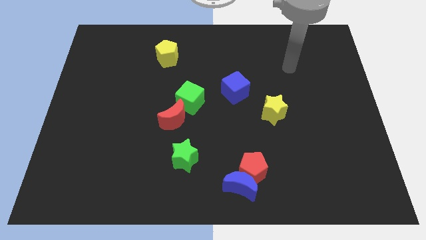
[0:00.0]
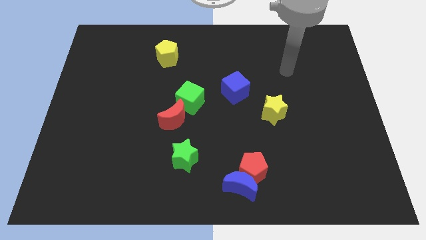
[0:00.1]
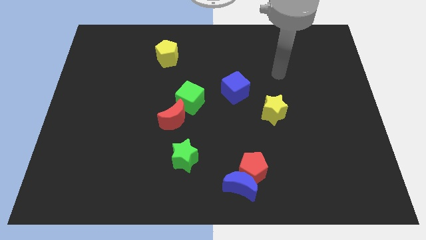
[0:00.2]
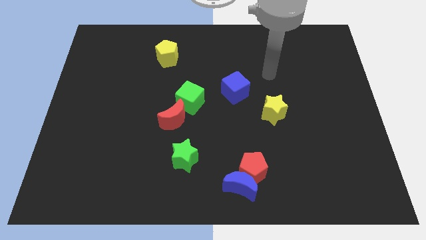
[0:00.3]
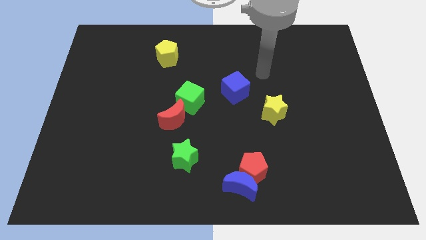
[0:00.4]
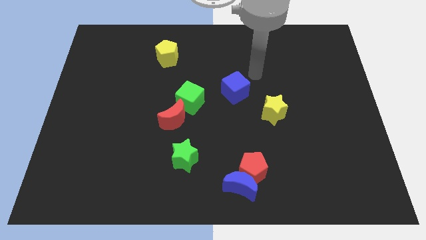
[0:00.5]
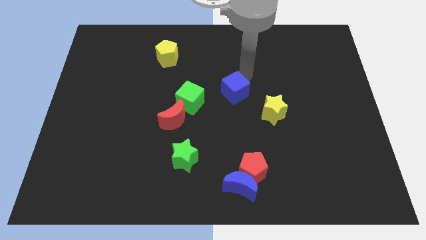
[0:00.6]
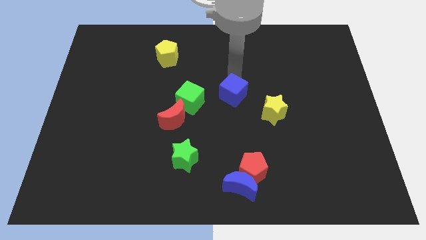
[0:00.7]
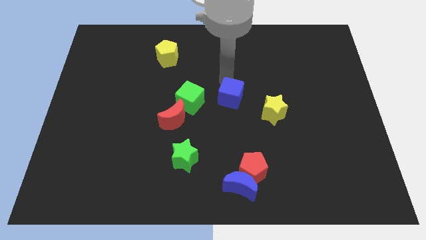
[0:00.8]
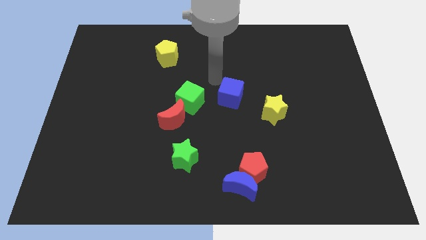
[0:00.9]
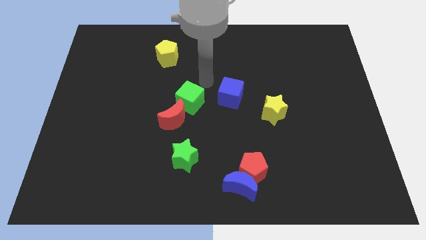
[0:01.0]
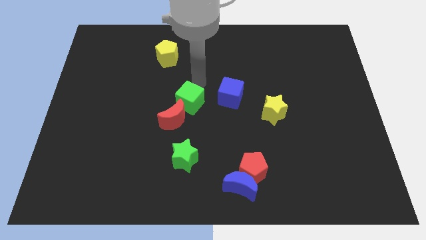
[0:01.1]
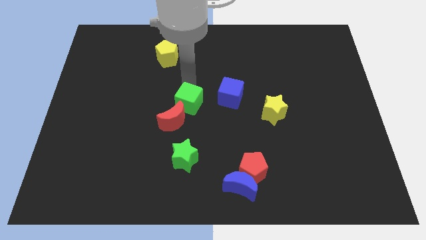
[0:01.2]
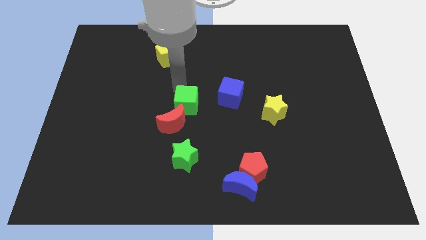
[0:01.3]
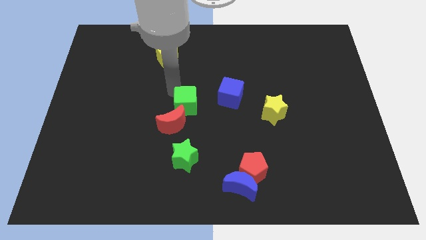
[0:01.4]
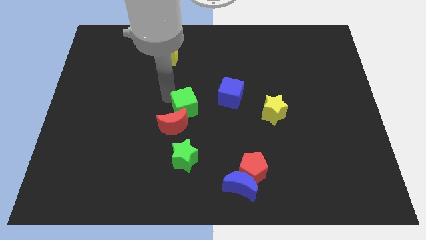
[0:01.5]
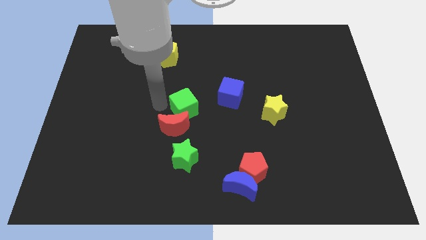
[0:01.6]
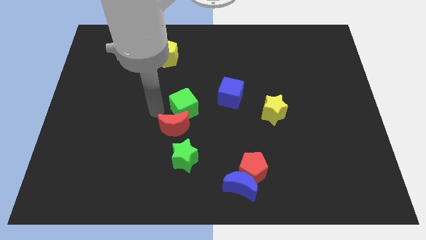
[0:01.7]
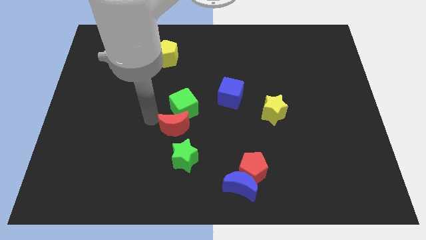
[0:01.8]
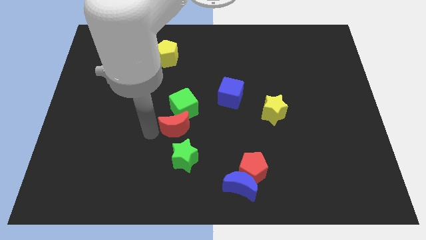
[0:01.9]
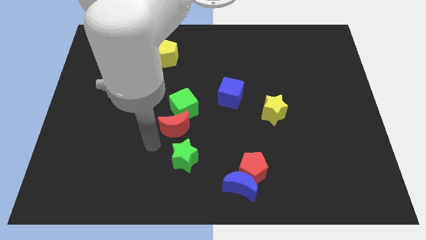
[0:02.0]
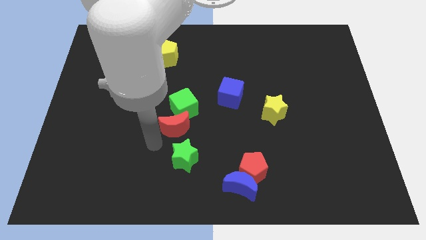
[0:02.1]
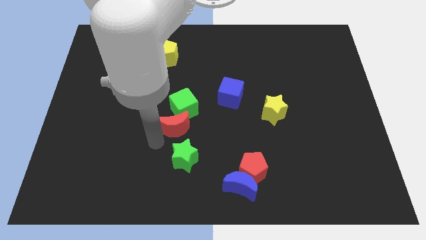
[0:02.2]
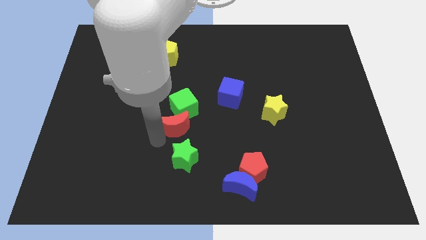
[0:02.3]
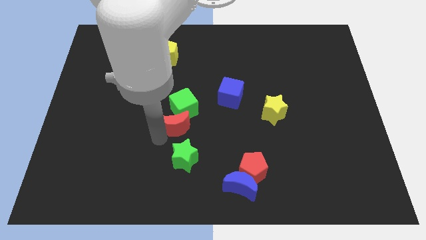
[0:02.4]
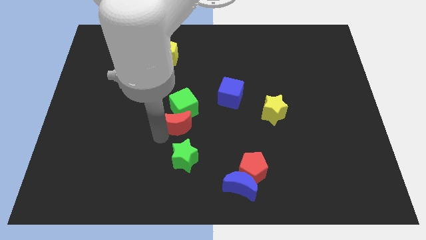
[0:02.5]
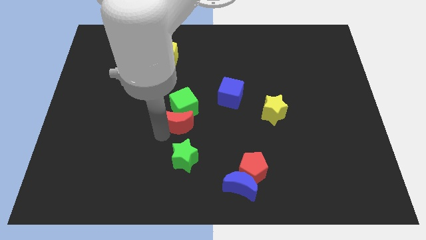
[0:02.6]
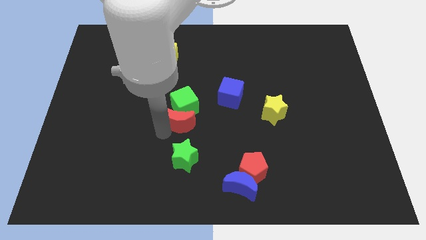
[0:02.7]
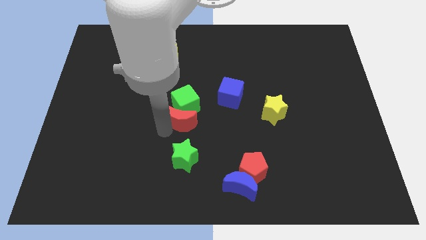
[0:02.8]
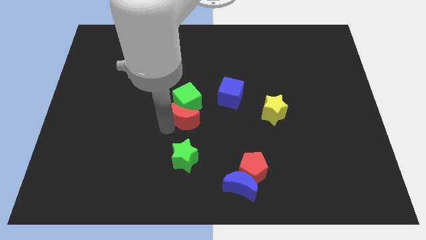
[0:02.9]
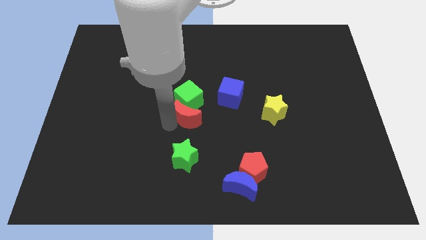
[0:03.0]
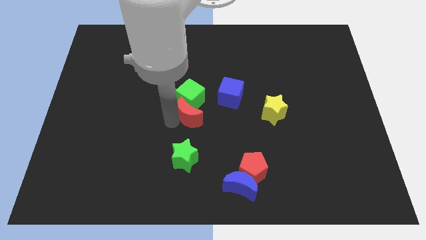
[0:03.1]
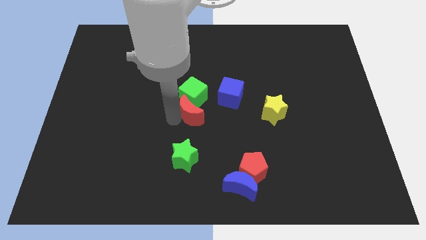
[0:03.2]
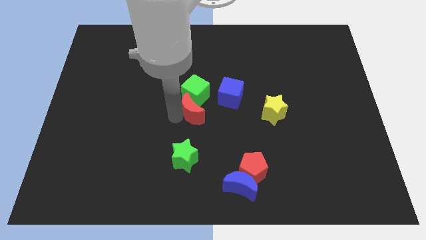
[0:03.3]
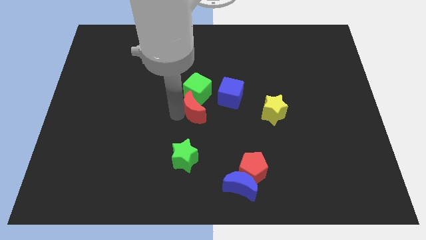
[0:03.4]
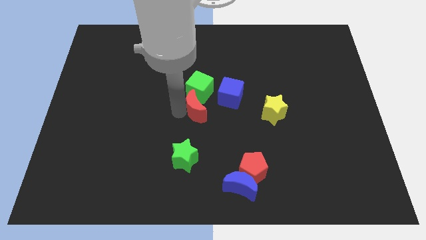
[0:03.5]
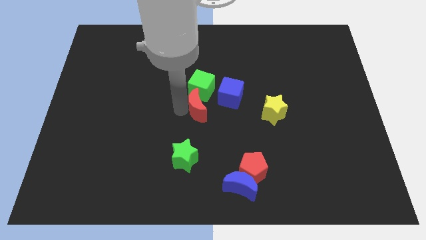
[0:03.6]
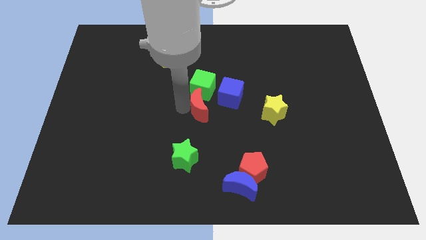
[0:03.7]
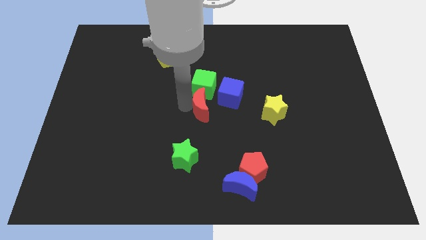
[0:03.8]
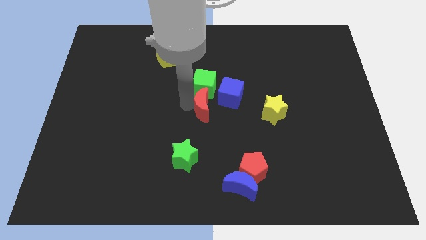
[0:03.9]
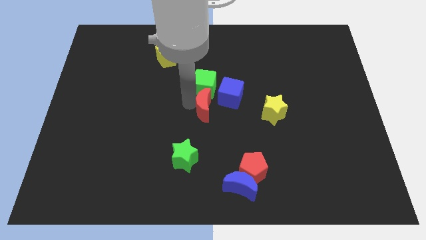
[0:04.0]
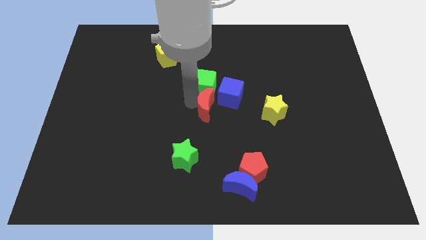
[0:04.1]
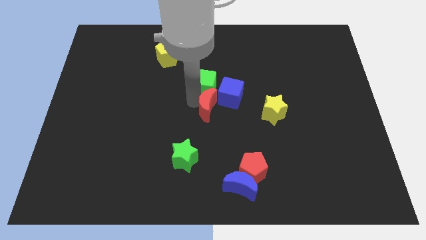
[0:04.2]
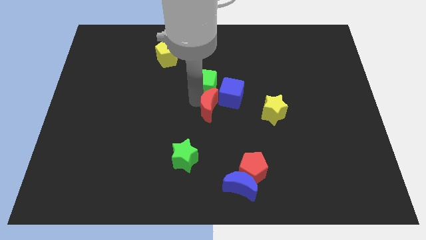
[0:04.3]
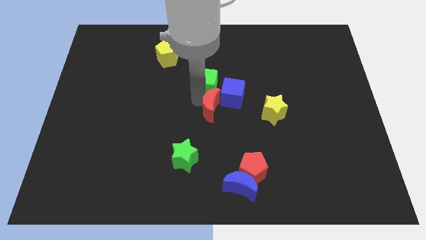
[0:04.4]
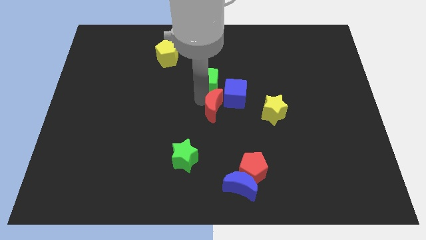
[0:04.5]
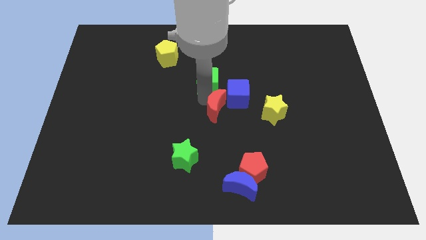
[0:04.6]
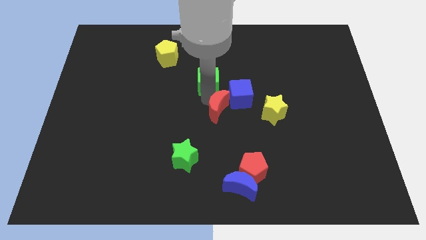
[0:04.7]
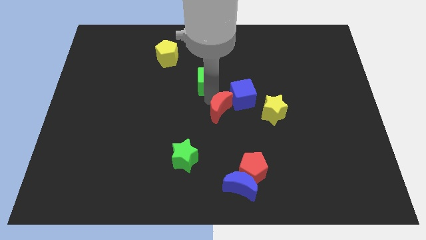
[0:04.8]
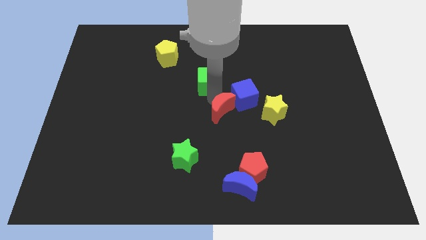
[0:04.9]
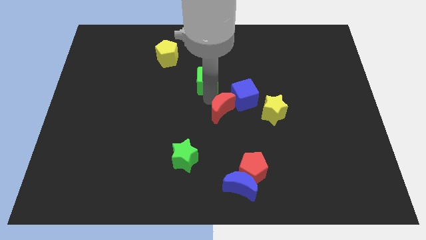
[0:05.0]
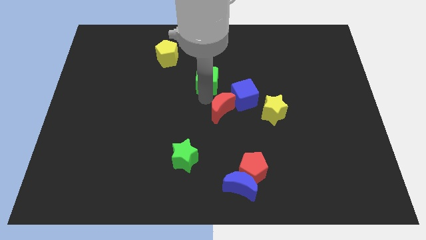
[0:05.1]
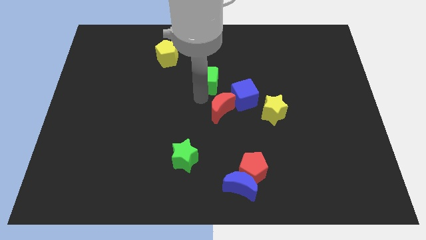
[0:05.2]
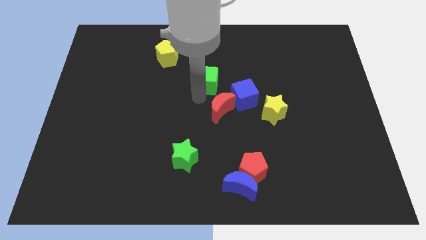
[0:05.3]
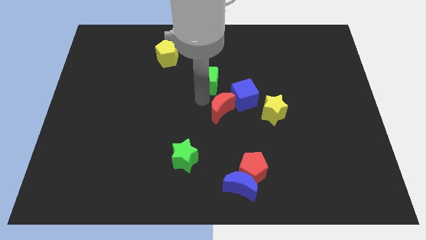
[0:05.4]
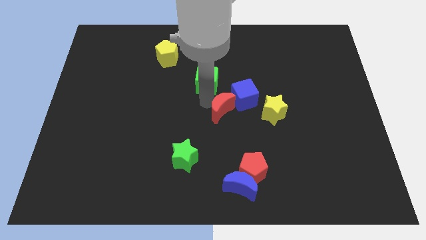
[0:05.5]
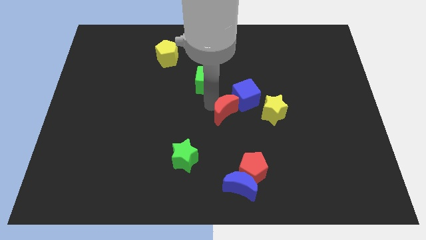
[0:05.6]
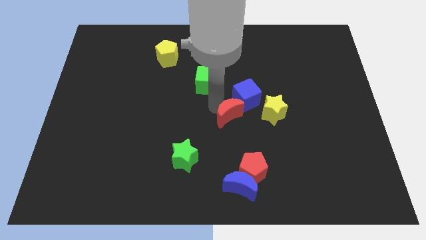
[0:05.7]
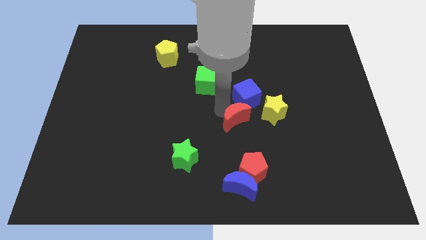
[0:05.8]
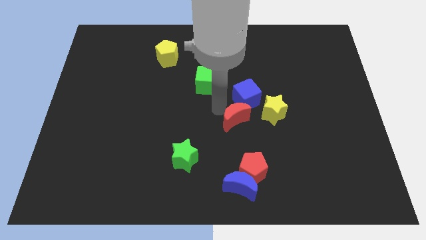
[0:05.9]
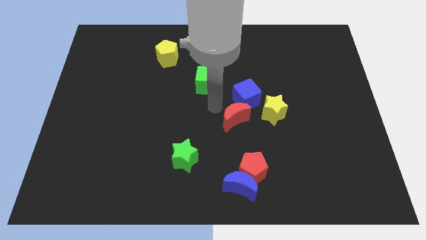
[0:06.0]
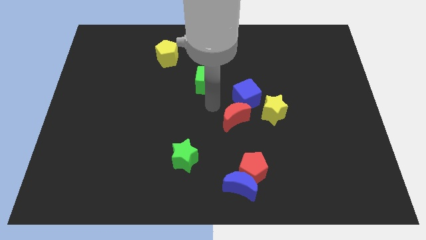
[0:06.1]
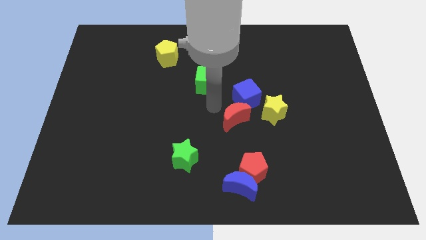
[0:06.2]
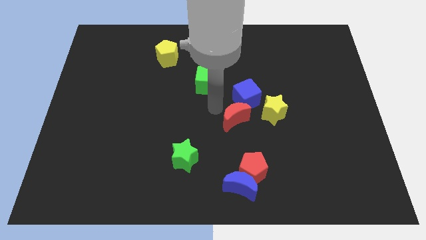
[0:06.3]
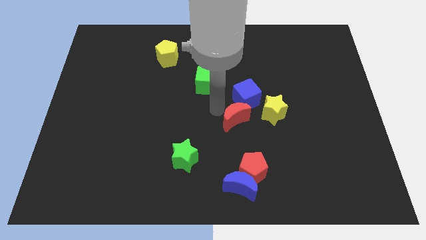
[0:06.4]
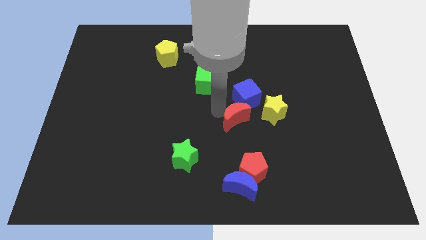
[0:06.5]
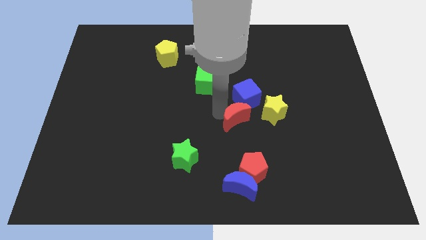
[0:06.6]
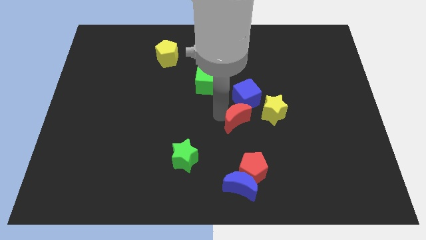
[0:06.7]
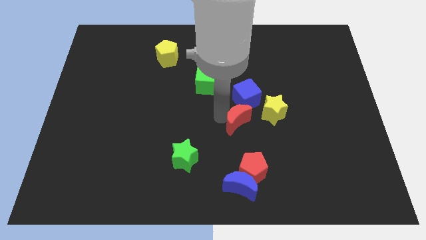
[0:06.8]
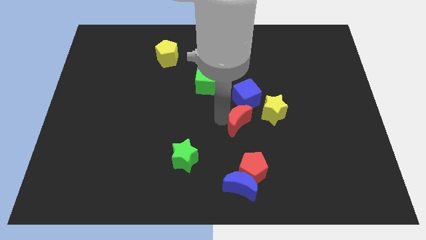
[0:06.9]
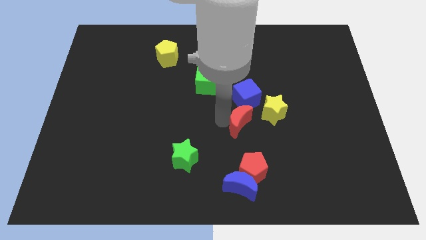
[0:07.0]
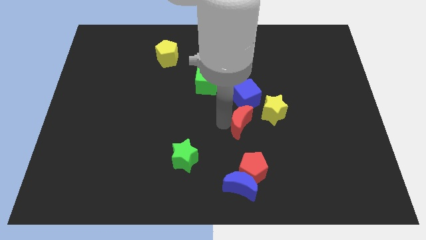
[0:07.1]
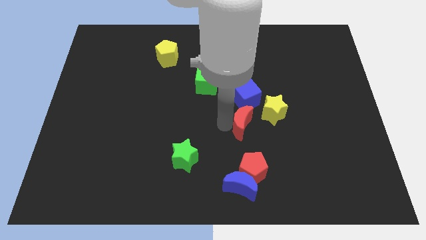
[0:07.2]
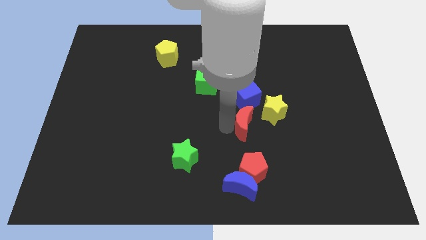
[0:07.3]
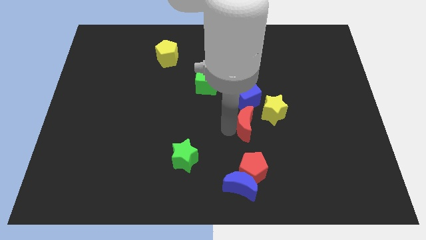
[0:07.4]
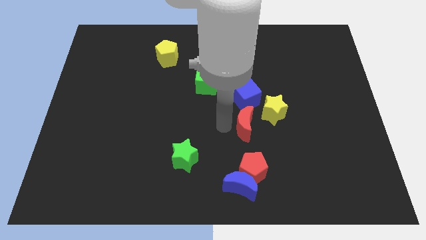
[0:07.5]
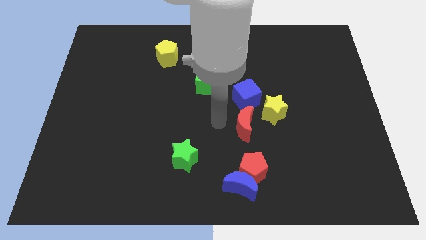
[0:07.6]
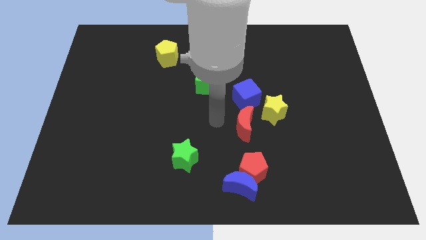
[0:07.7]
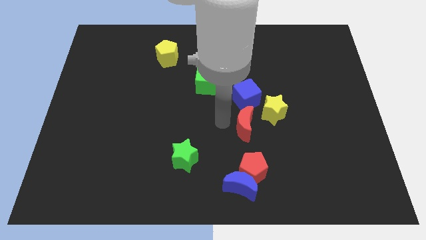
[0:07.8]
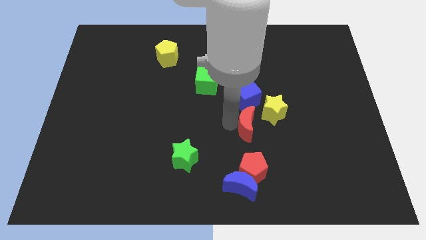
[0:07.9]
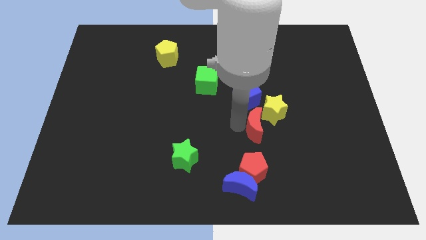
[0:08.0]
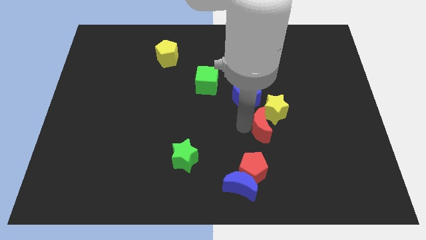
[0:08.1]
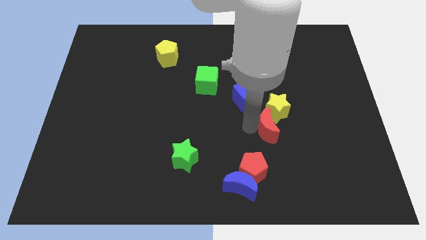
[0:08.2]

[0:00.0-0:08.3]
slide the red moon to the right

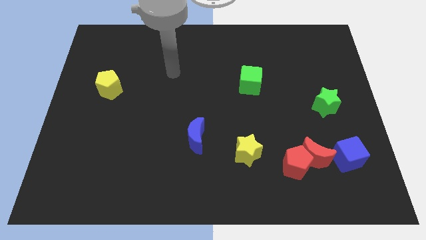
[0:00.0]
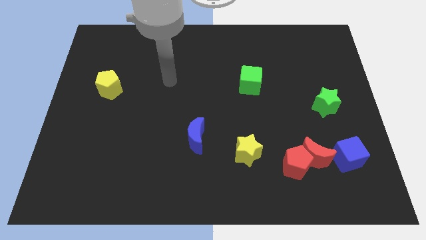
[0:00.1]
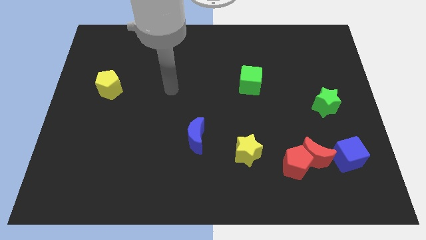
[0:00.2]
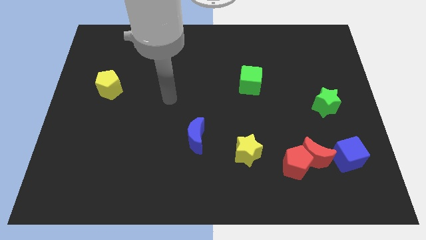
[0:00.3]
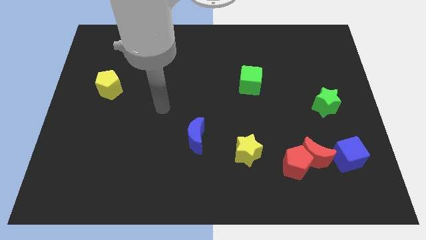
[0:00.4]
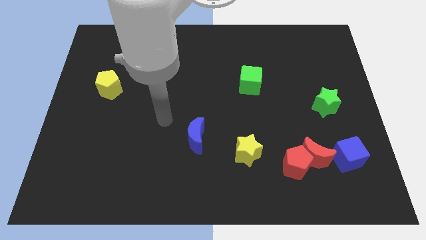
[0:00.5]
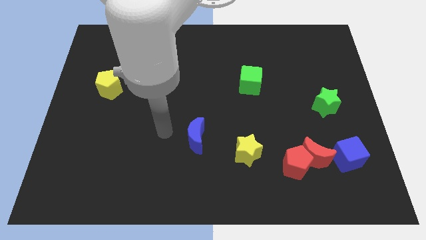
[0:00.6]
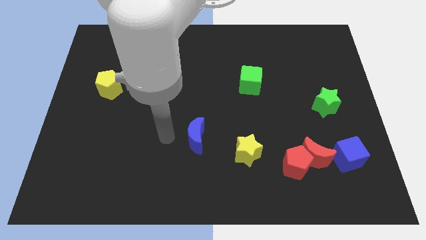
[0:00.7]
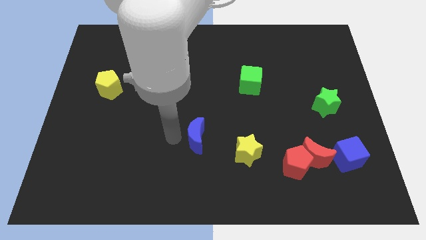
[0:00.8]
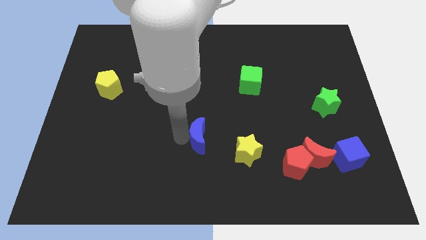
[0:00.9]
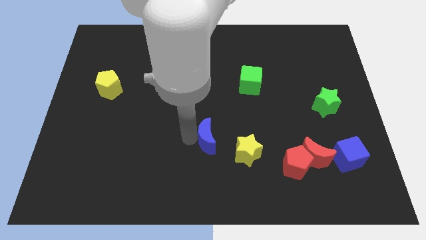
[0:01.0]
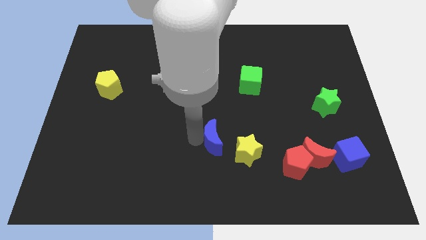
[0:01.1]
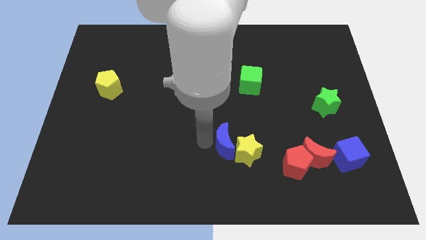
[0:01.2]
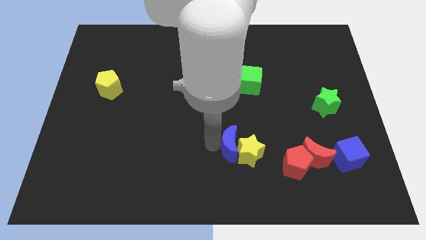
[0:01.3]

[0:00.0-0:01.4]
slightly slide the blue moon right
